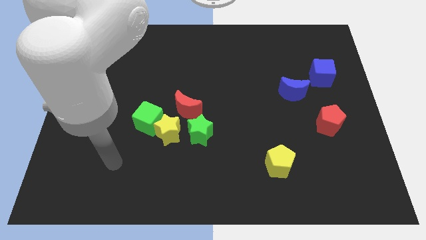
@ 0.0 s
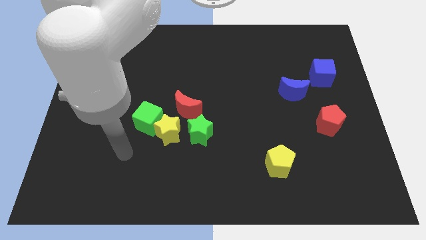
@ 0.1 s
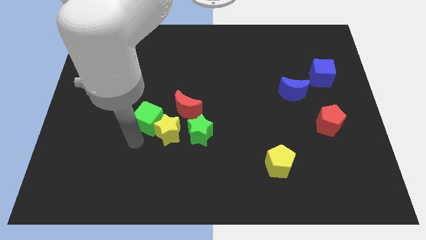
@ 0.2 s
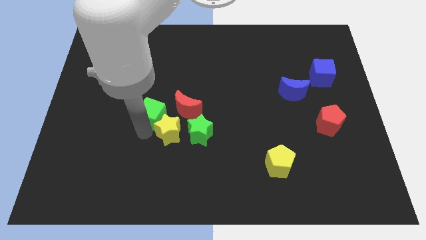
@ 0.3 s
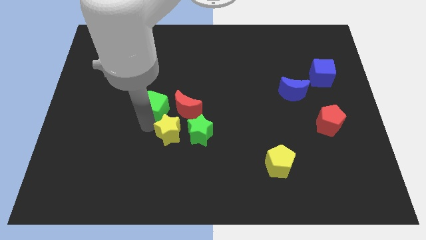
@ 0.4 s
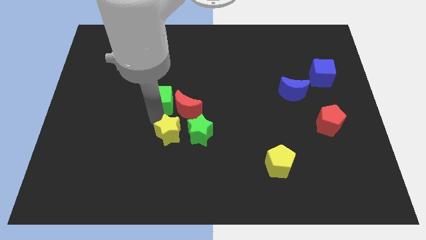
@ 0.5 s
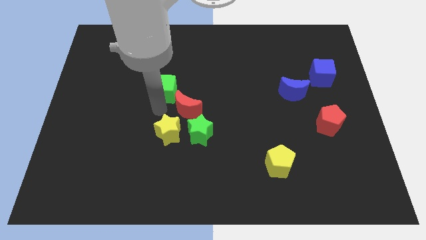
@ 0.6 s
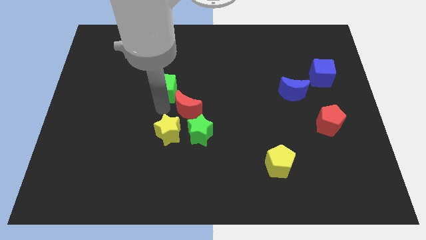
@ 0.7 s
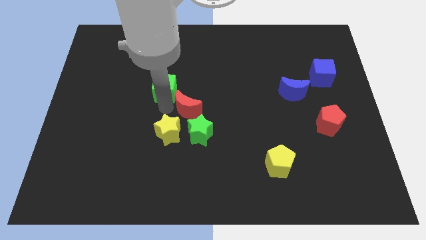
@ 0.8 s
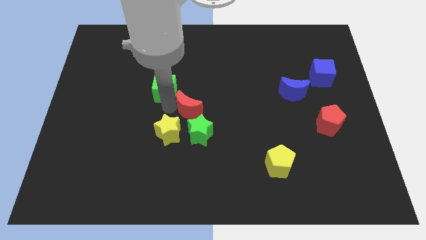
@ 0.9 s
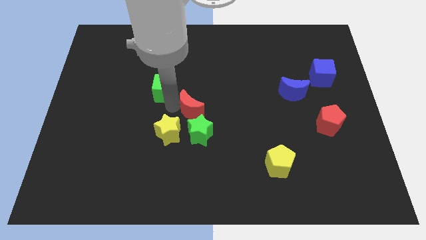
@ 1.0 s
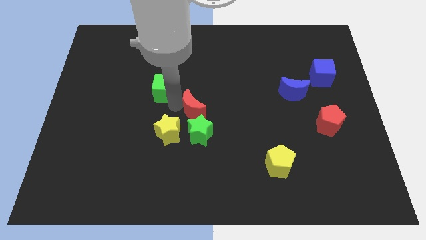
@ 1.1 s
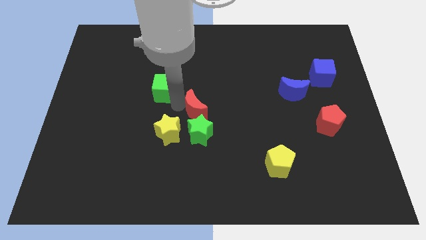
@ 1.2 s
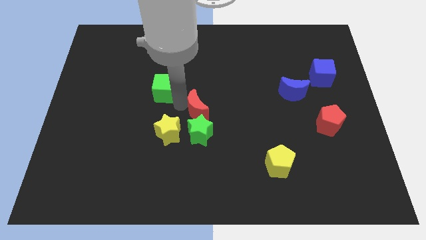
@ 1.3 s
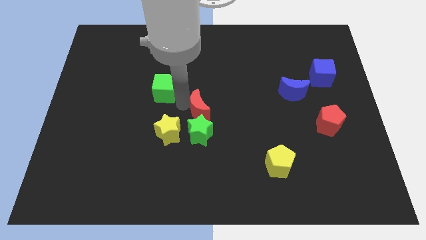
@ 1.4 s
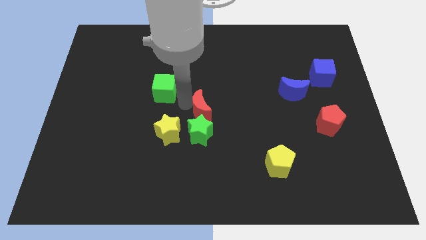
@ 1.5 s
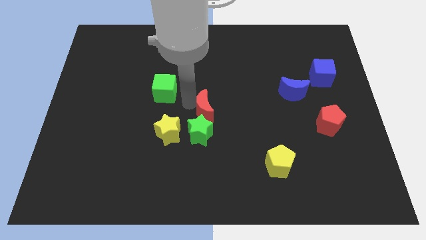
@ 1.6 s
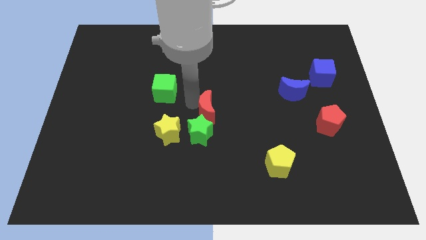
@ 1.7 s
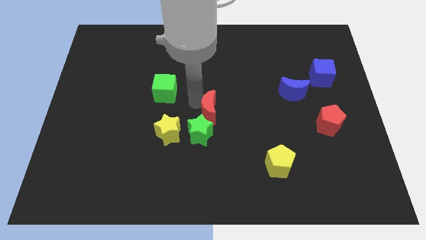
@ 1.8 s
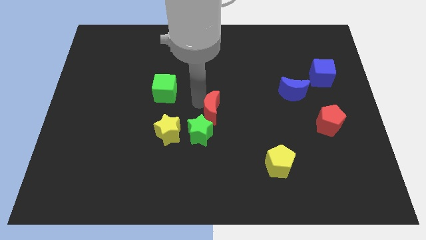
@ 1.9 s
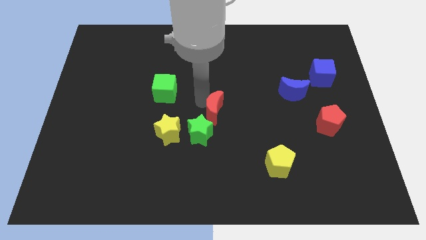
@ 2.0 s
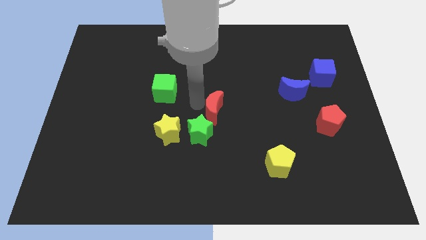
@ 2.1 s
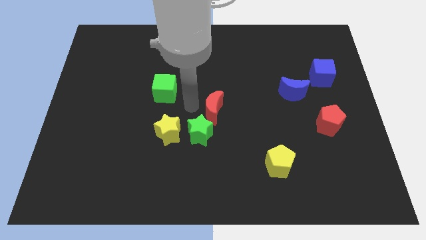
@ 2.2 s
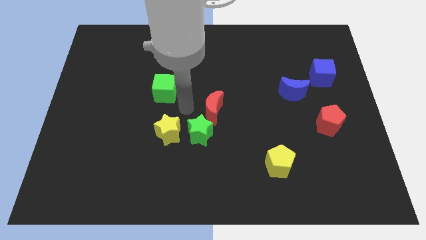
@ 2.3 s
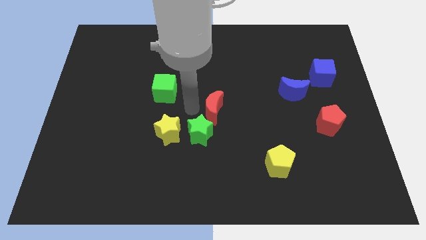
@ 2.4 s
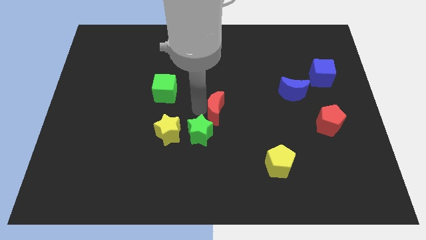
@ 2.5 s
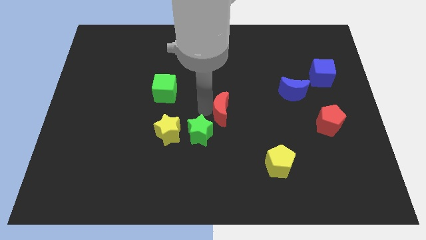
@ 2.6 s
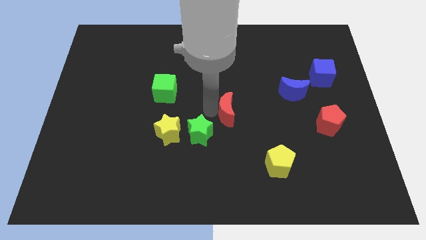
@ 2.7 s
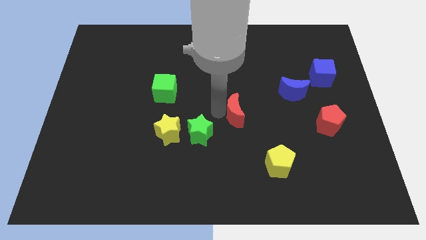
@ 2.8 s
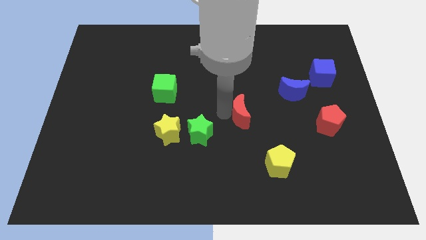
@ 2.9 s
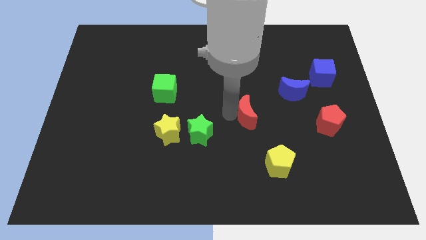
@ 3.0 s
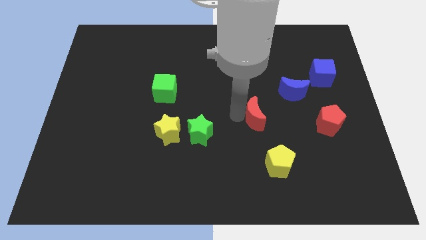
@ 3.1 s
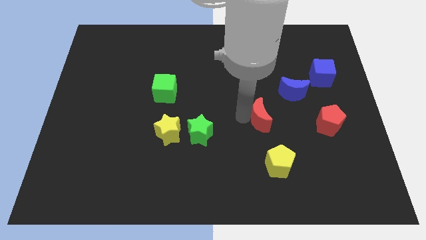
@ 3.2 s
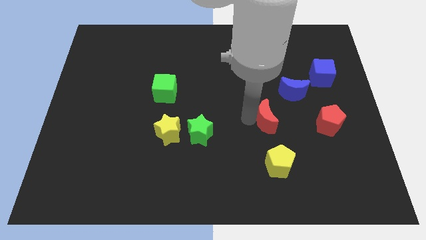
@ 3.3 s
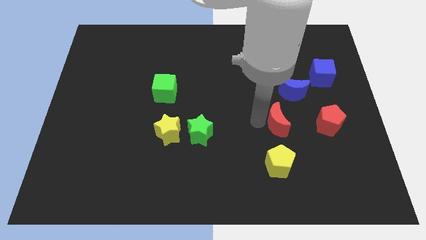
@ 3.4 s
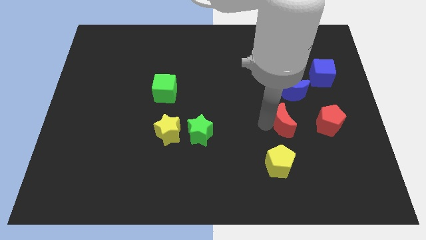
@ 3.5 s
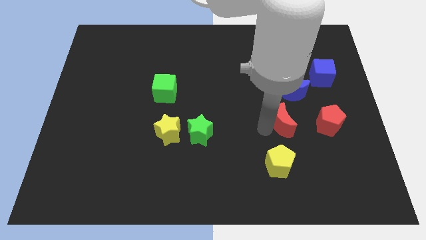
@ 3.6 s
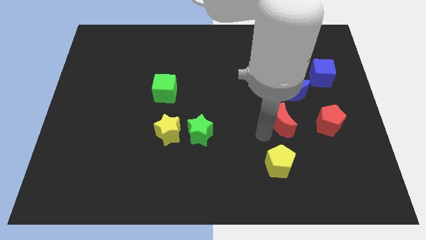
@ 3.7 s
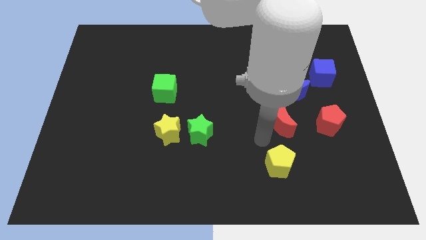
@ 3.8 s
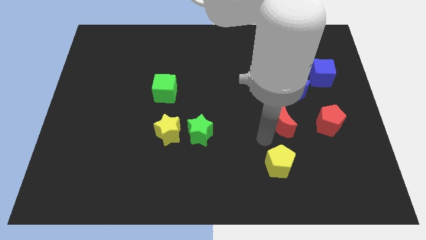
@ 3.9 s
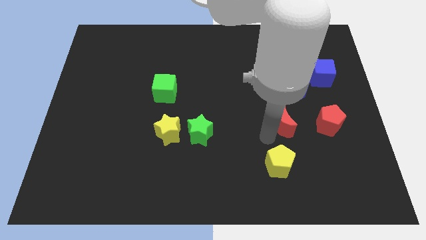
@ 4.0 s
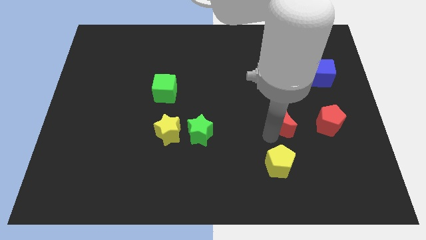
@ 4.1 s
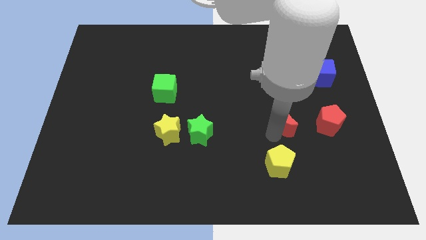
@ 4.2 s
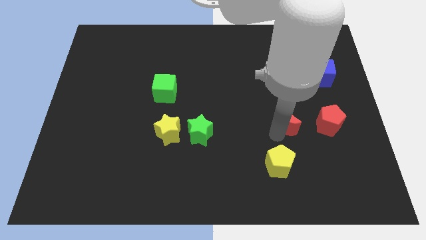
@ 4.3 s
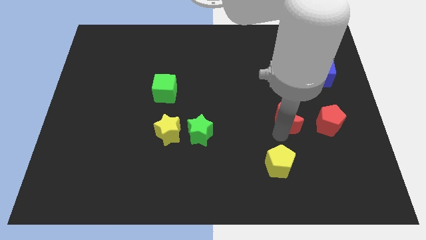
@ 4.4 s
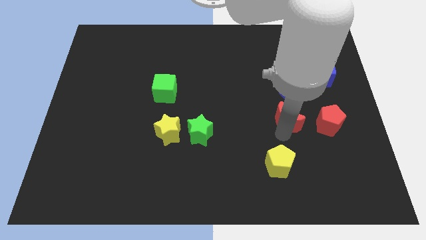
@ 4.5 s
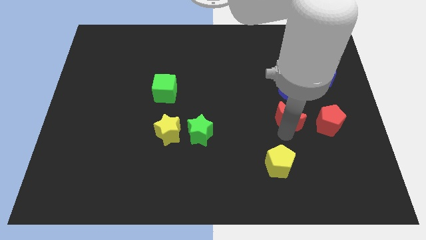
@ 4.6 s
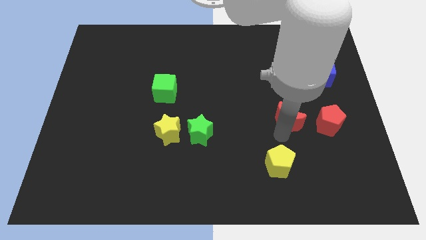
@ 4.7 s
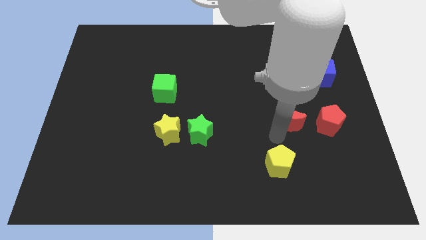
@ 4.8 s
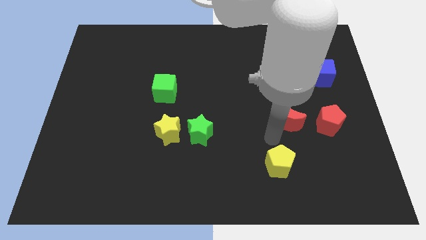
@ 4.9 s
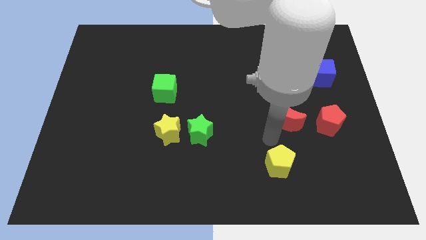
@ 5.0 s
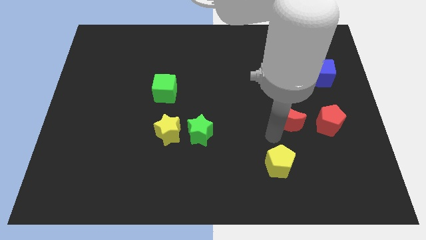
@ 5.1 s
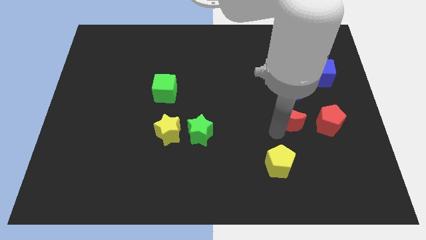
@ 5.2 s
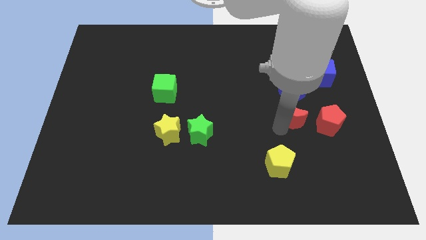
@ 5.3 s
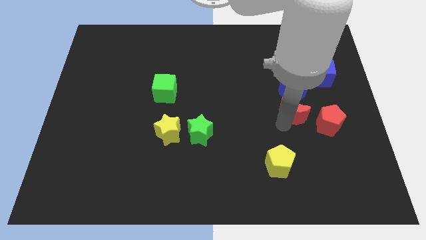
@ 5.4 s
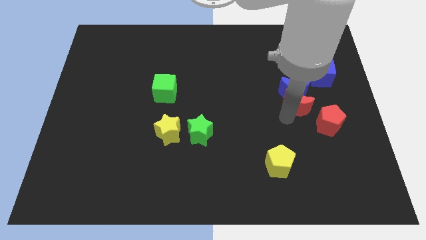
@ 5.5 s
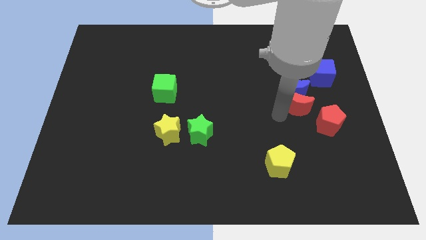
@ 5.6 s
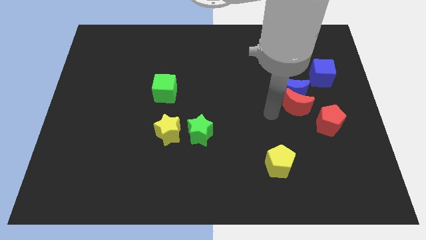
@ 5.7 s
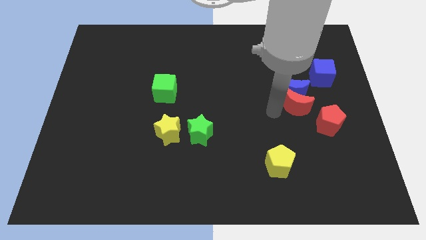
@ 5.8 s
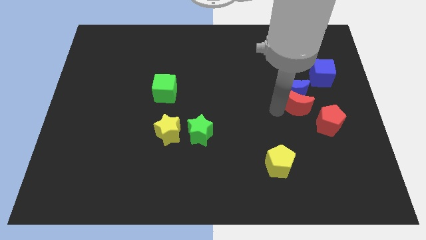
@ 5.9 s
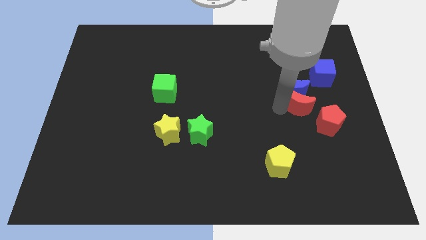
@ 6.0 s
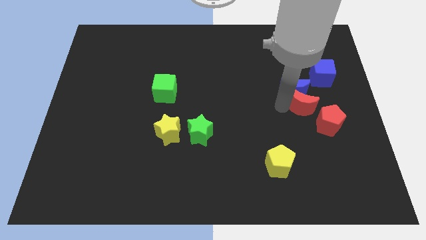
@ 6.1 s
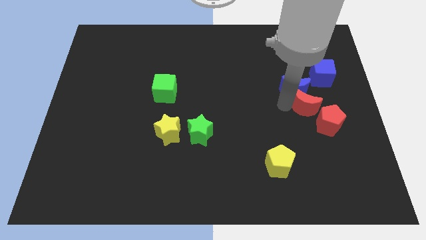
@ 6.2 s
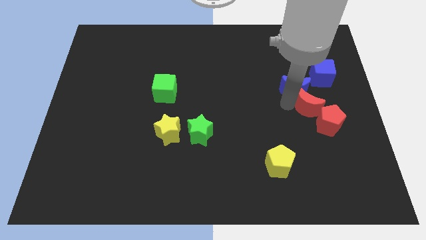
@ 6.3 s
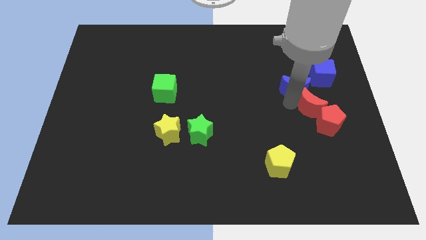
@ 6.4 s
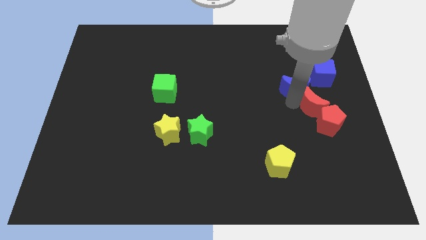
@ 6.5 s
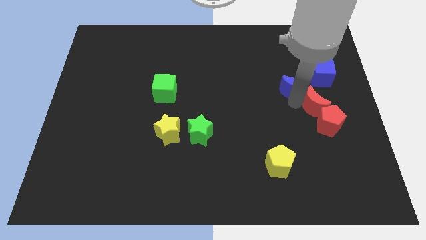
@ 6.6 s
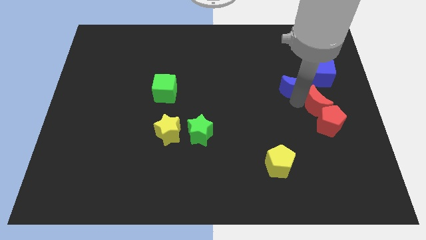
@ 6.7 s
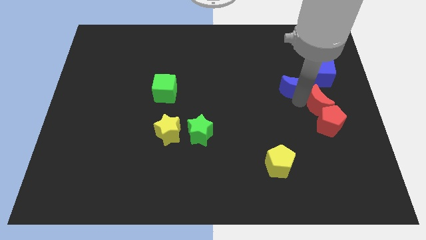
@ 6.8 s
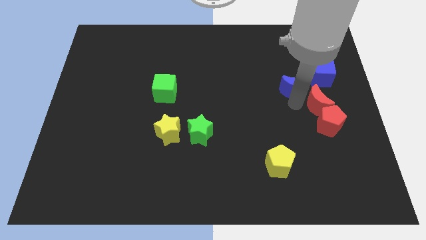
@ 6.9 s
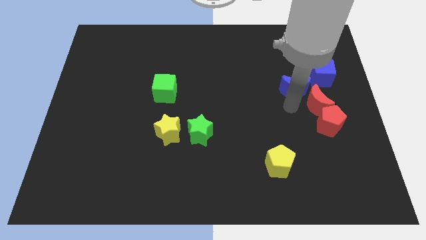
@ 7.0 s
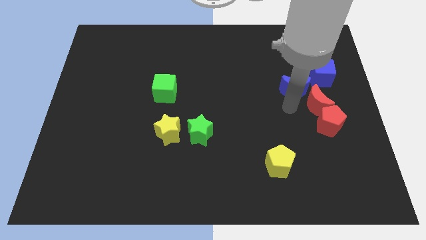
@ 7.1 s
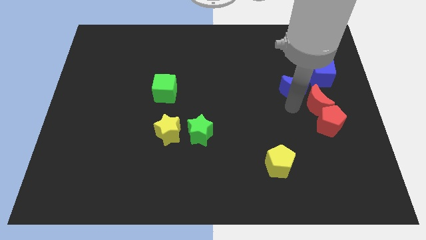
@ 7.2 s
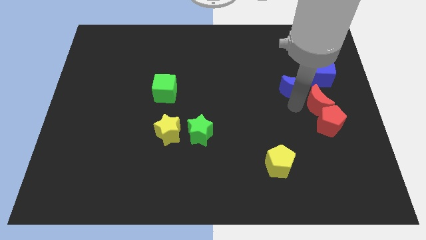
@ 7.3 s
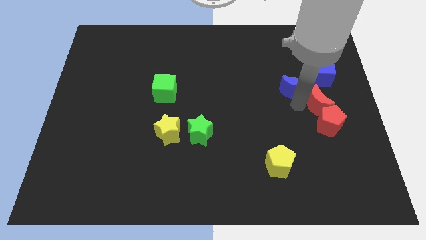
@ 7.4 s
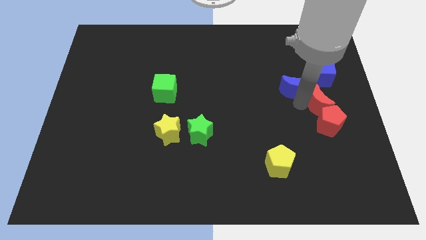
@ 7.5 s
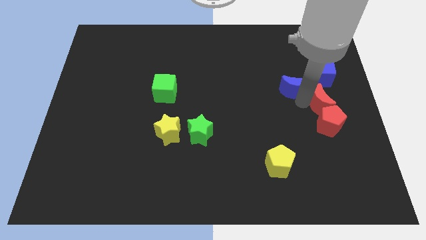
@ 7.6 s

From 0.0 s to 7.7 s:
push the red moon to the right side

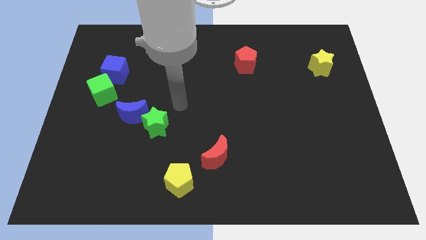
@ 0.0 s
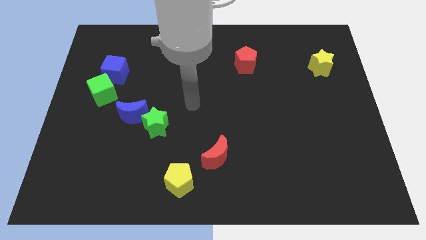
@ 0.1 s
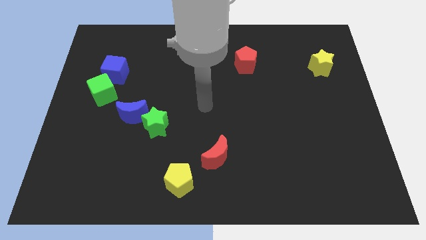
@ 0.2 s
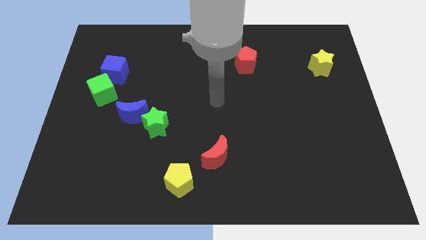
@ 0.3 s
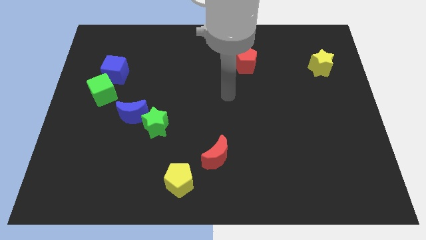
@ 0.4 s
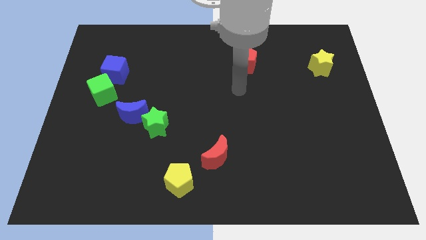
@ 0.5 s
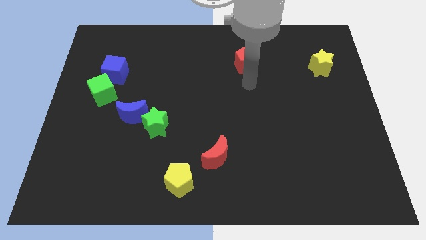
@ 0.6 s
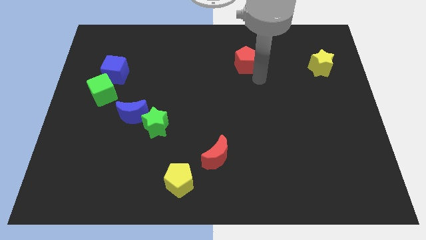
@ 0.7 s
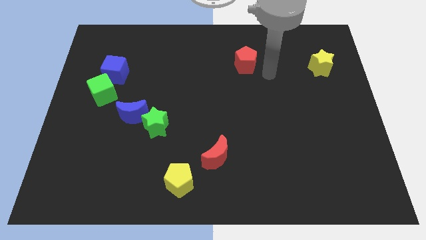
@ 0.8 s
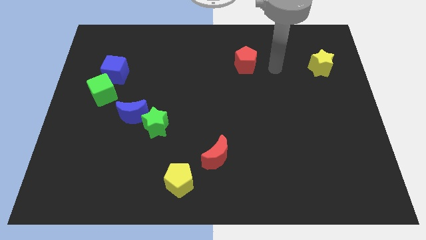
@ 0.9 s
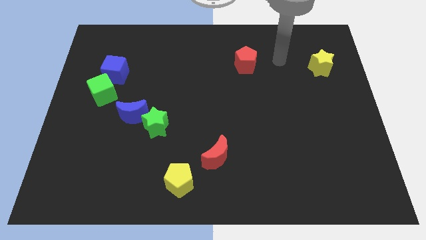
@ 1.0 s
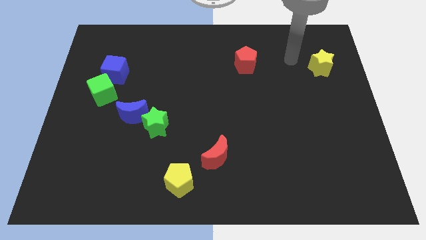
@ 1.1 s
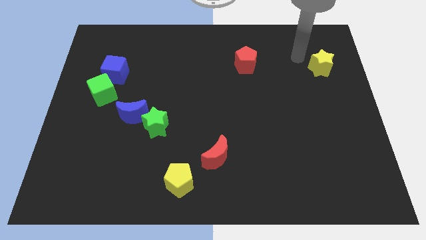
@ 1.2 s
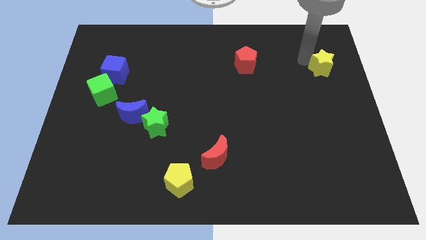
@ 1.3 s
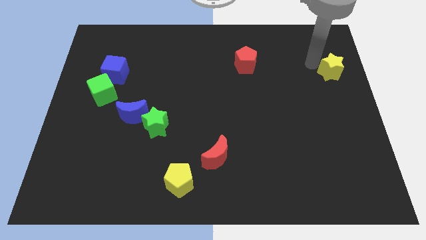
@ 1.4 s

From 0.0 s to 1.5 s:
put the yellow star to the right side of the board
